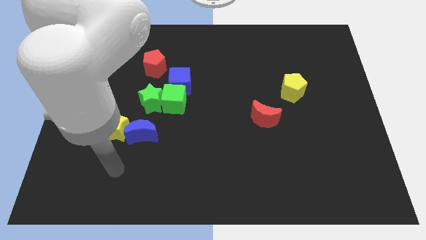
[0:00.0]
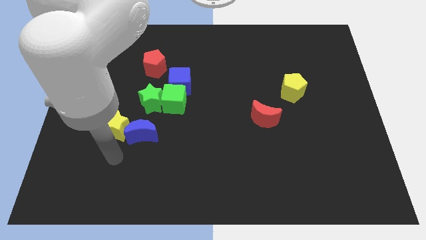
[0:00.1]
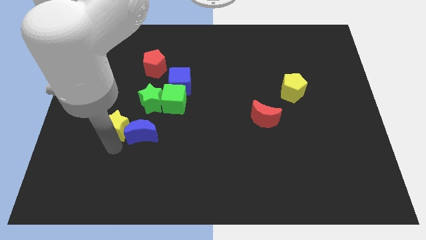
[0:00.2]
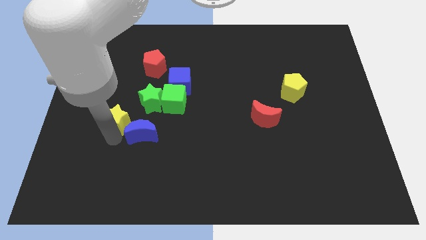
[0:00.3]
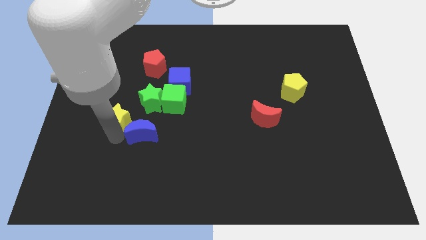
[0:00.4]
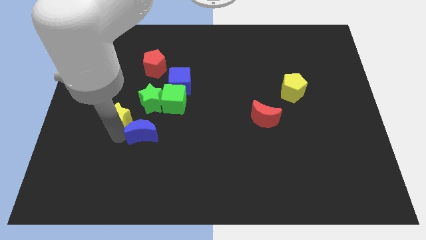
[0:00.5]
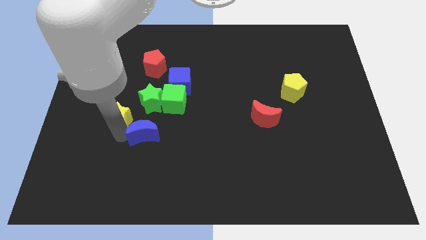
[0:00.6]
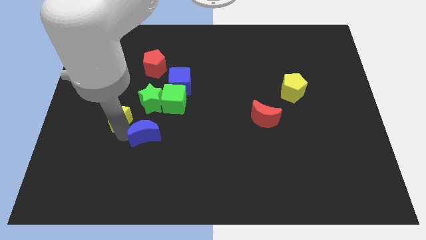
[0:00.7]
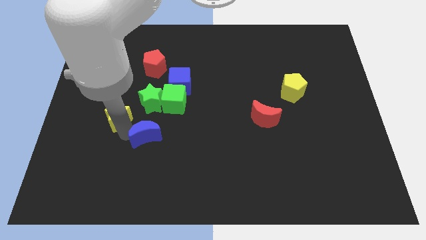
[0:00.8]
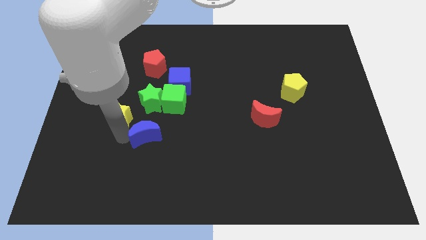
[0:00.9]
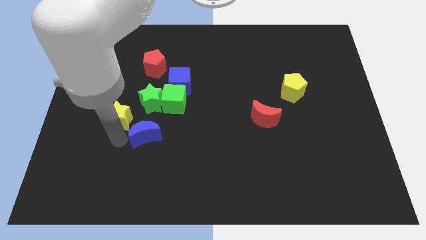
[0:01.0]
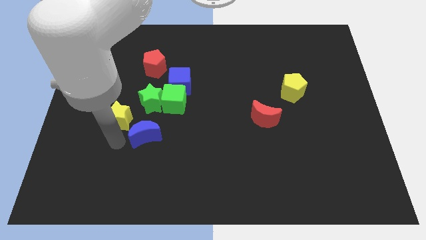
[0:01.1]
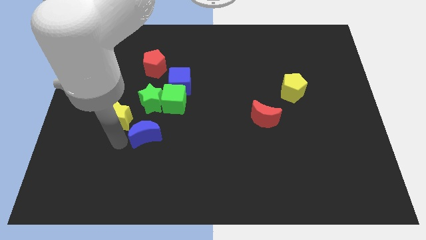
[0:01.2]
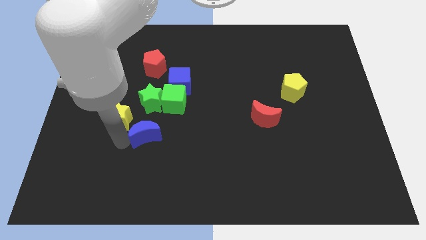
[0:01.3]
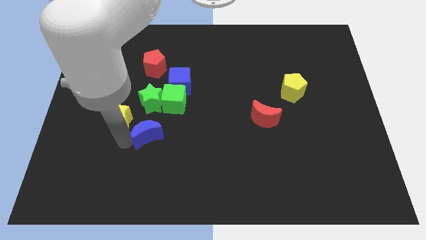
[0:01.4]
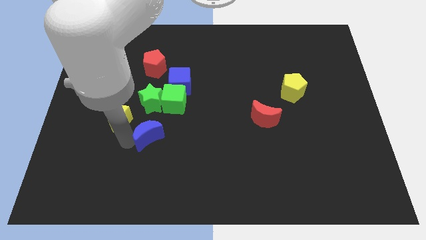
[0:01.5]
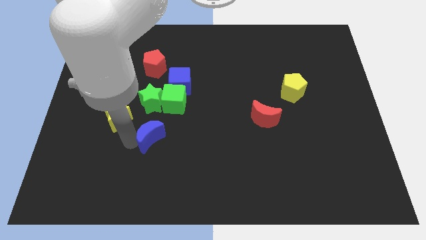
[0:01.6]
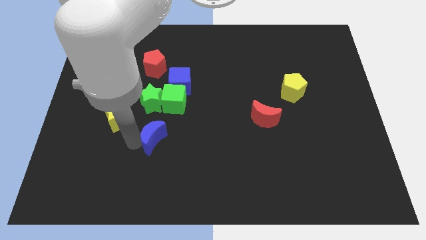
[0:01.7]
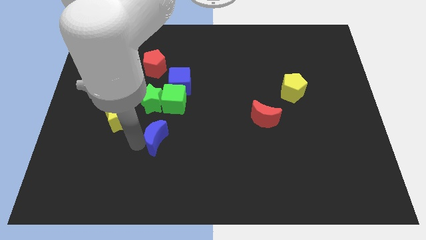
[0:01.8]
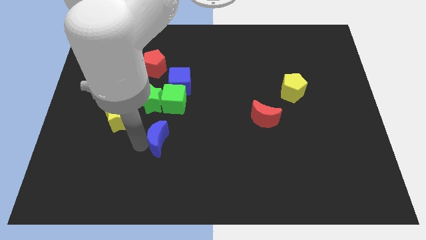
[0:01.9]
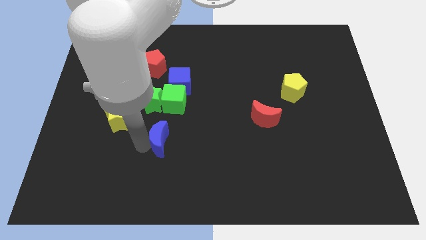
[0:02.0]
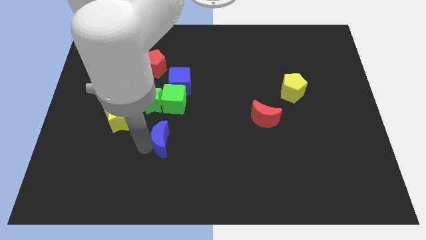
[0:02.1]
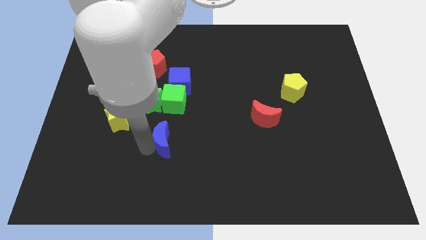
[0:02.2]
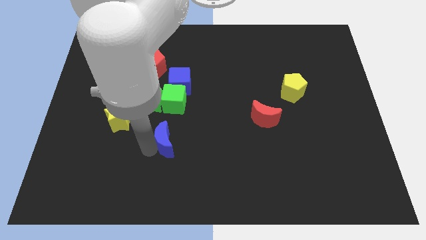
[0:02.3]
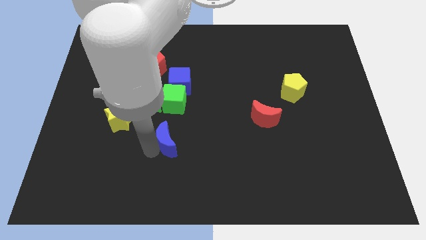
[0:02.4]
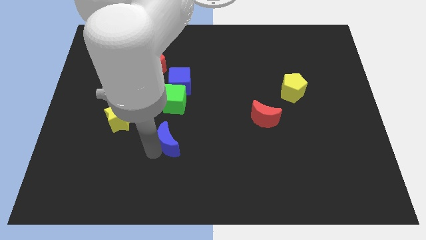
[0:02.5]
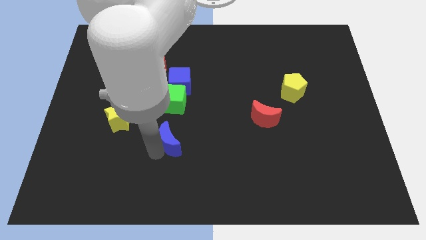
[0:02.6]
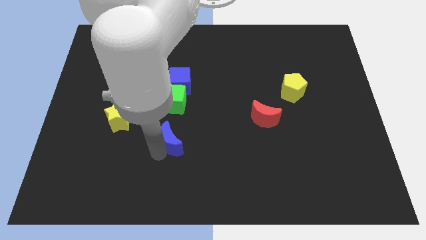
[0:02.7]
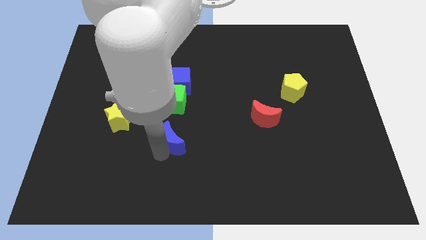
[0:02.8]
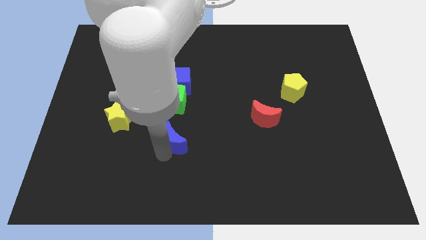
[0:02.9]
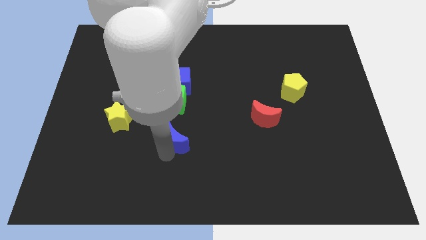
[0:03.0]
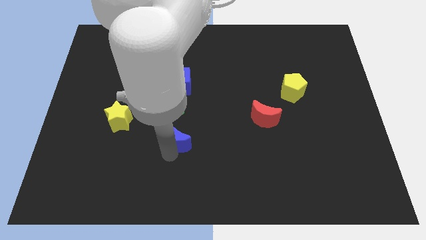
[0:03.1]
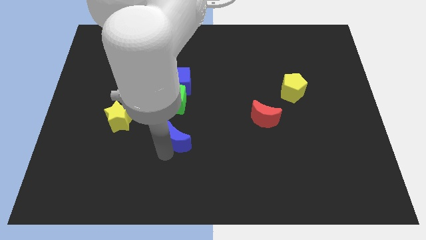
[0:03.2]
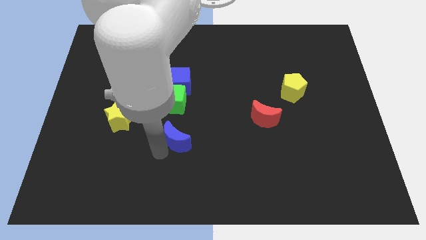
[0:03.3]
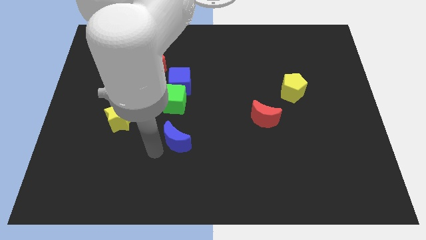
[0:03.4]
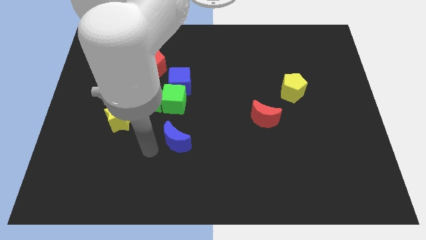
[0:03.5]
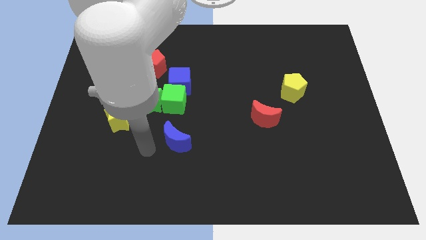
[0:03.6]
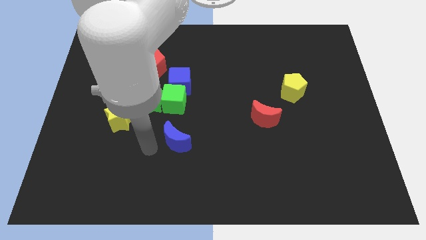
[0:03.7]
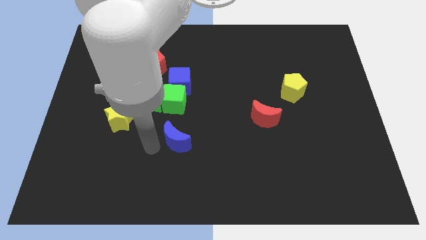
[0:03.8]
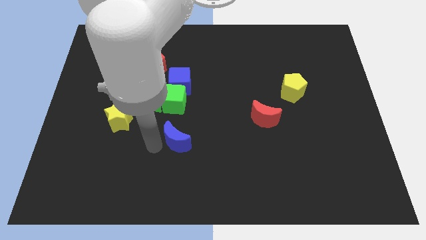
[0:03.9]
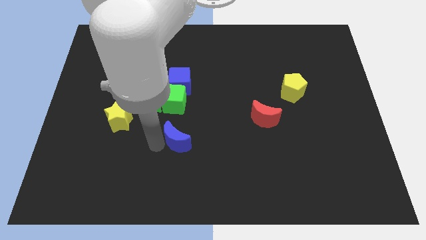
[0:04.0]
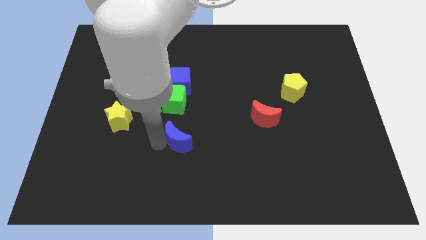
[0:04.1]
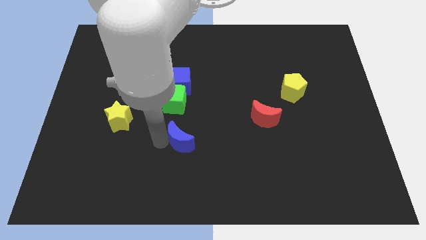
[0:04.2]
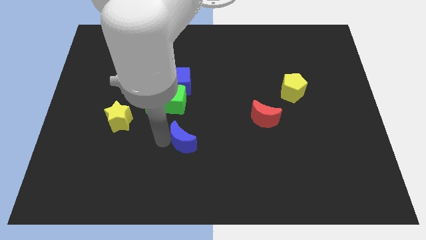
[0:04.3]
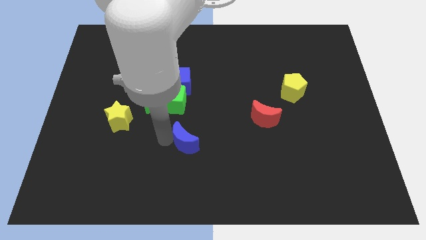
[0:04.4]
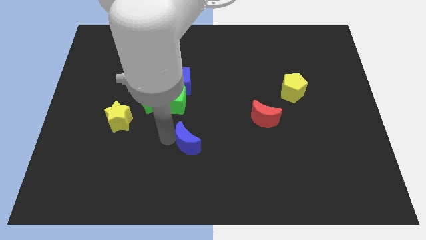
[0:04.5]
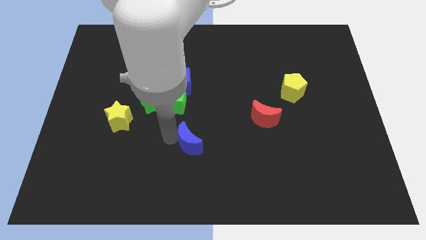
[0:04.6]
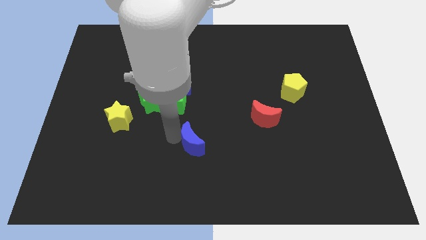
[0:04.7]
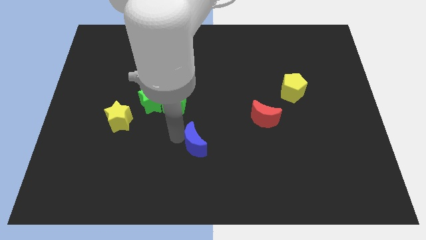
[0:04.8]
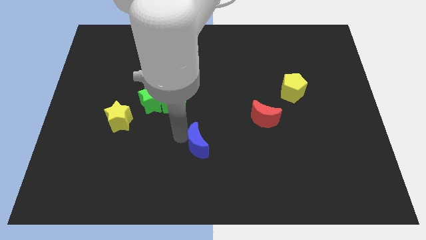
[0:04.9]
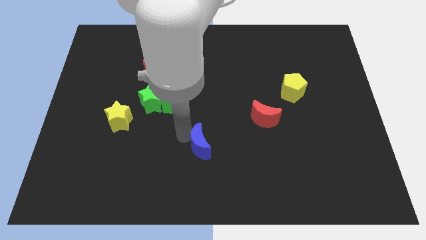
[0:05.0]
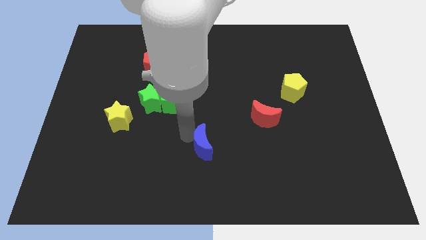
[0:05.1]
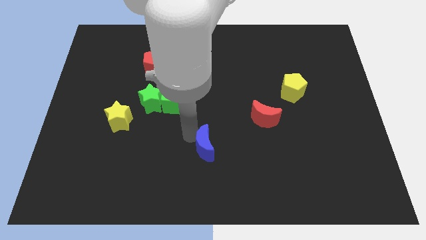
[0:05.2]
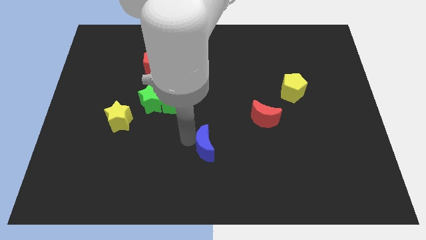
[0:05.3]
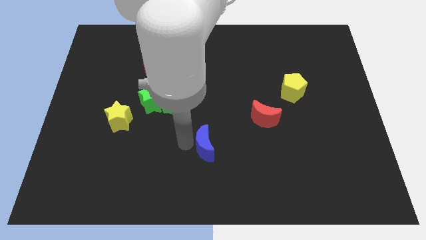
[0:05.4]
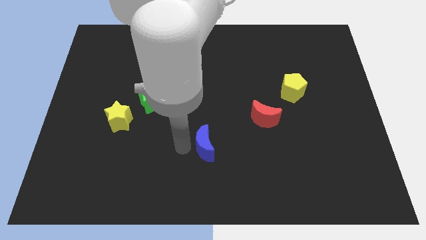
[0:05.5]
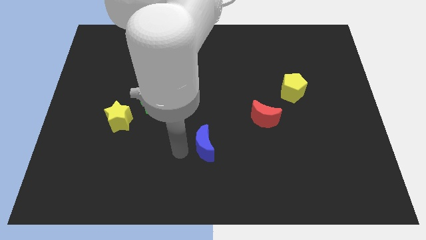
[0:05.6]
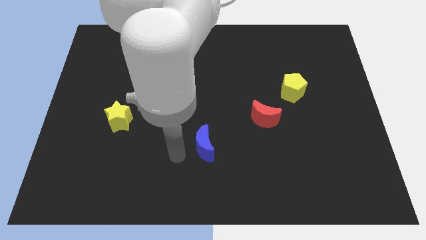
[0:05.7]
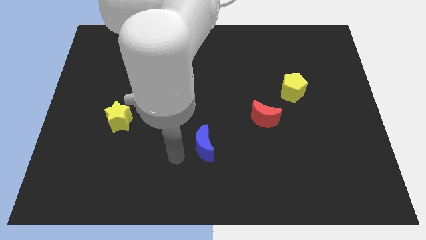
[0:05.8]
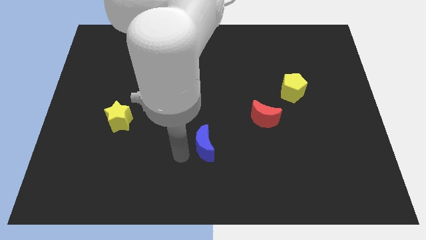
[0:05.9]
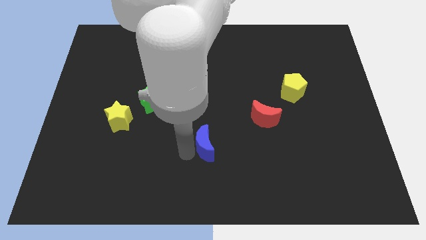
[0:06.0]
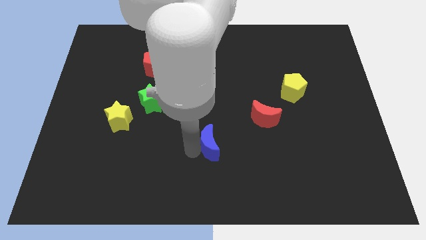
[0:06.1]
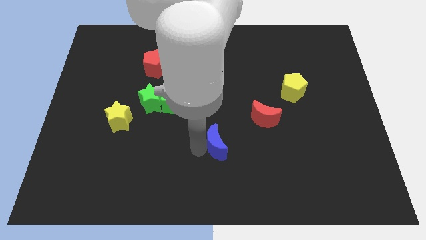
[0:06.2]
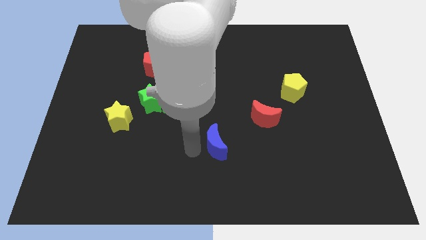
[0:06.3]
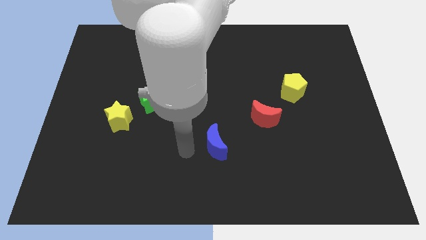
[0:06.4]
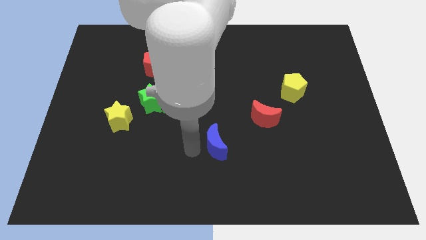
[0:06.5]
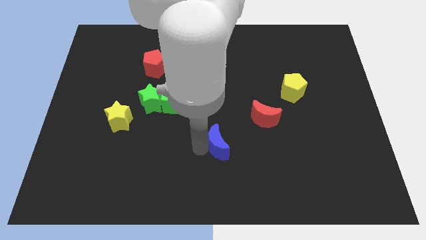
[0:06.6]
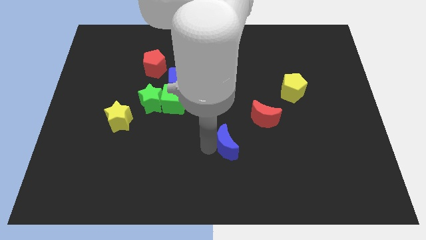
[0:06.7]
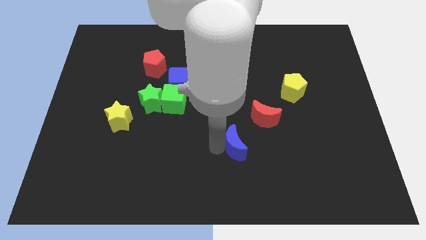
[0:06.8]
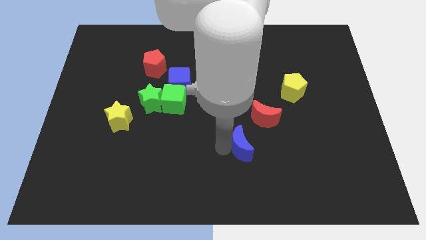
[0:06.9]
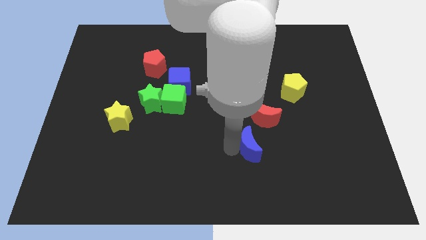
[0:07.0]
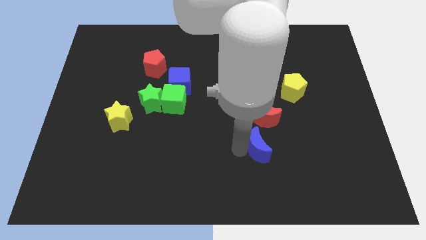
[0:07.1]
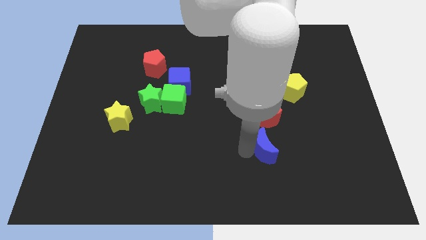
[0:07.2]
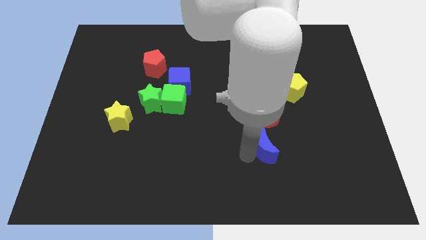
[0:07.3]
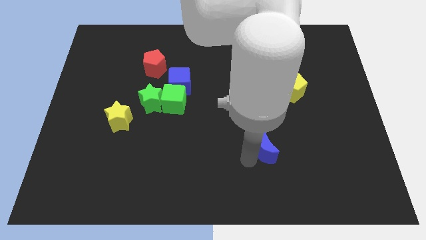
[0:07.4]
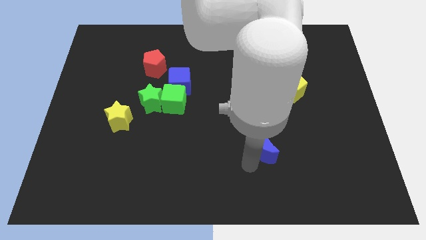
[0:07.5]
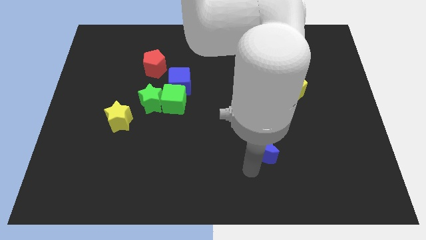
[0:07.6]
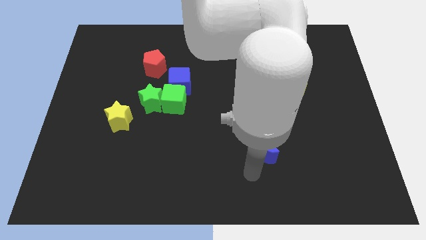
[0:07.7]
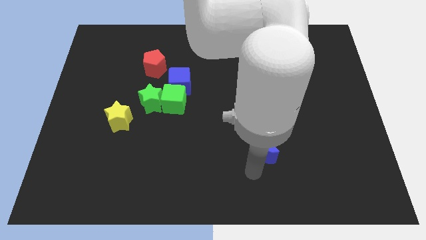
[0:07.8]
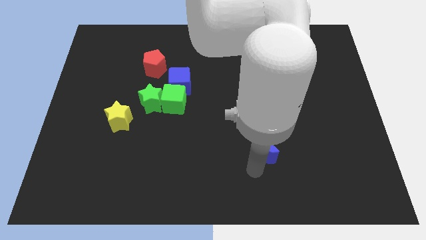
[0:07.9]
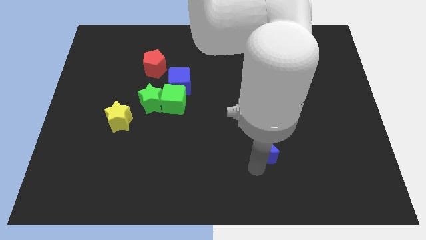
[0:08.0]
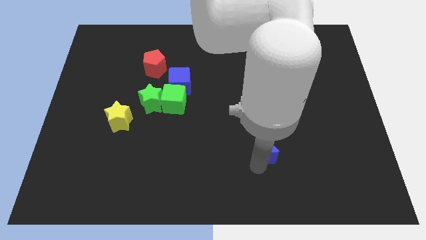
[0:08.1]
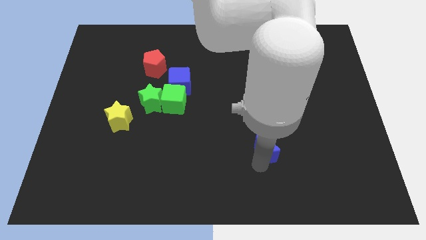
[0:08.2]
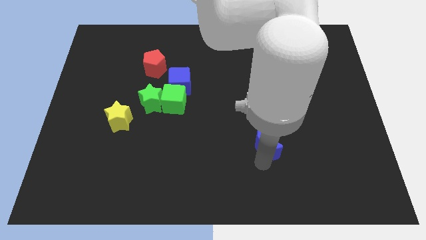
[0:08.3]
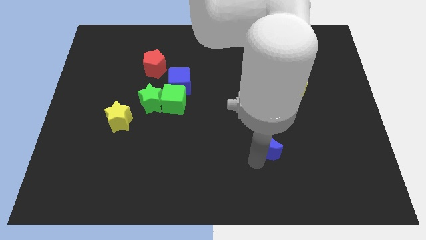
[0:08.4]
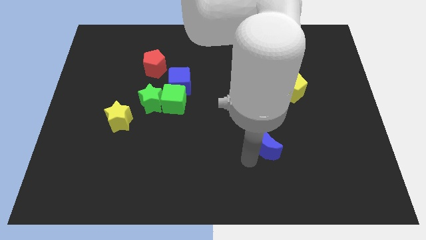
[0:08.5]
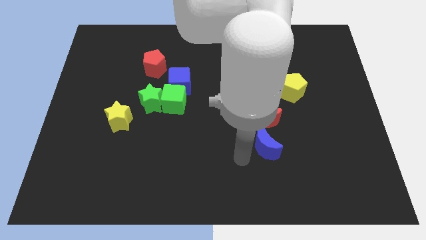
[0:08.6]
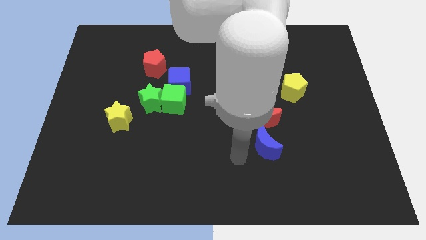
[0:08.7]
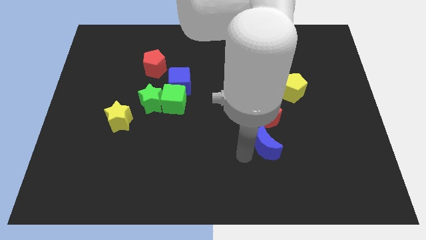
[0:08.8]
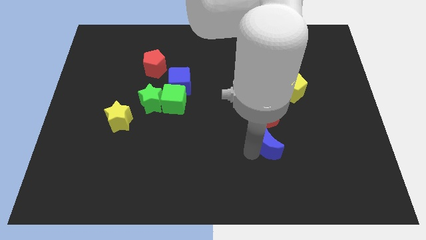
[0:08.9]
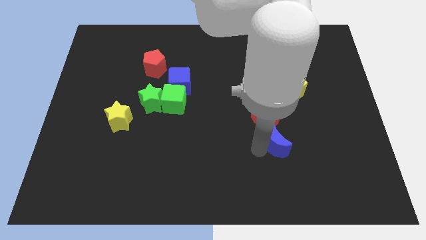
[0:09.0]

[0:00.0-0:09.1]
slide the blue moon diagonally down and to the right of the red moon
